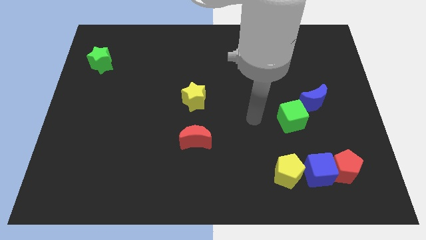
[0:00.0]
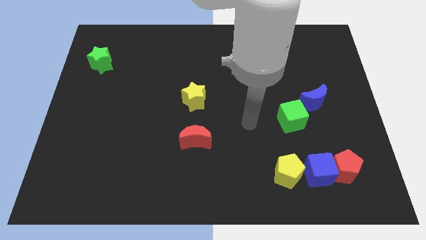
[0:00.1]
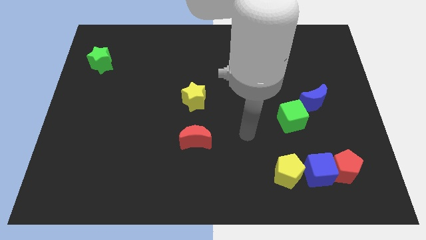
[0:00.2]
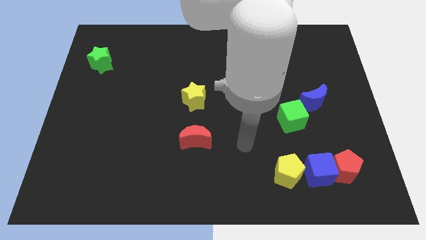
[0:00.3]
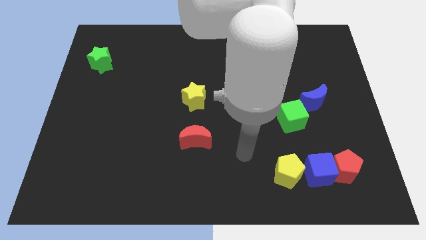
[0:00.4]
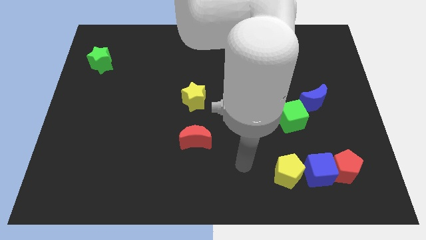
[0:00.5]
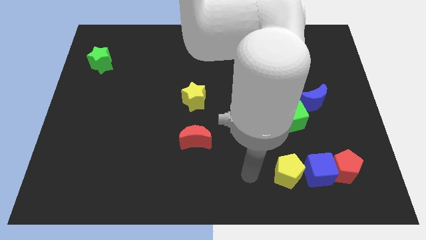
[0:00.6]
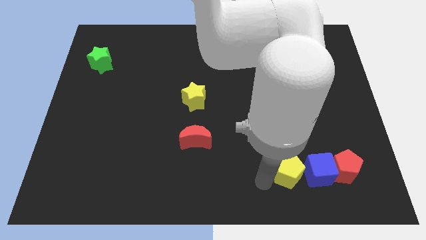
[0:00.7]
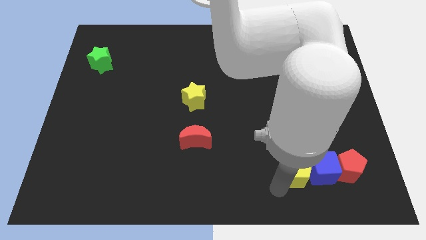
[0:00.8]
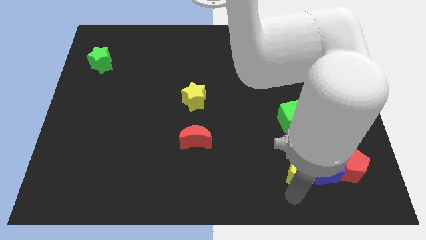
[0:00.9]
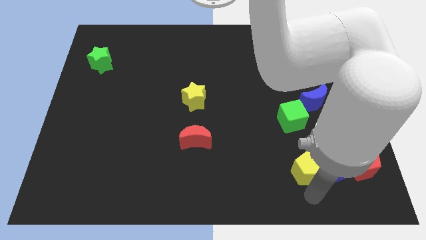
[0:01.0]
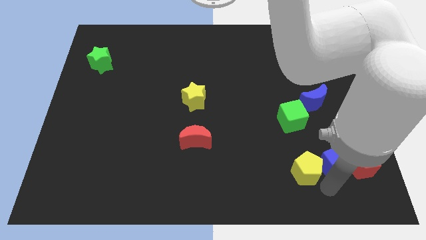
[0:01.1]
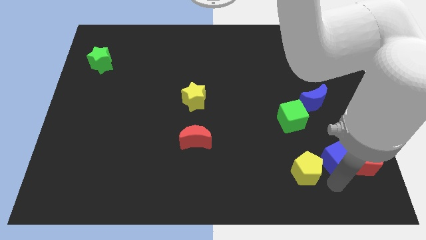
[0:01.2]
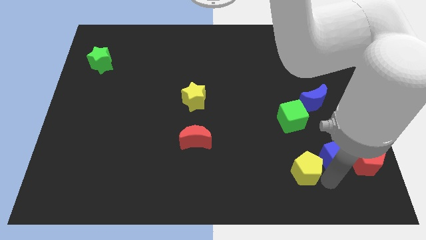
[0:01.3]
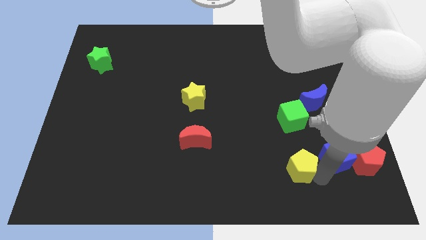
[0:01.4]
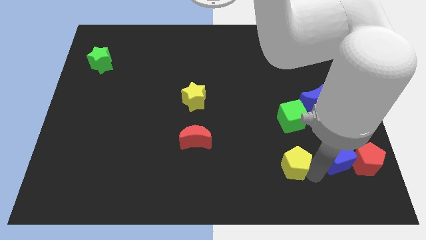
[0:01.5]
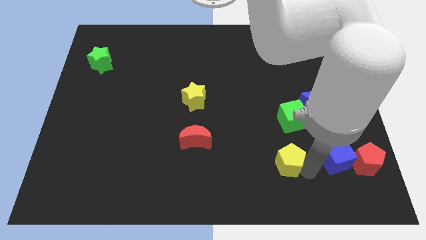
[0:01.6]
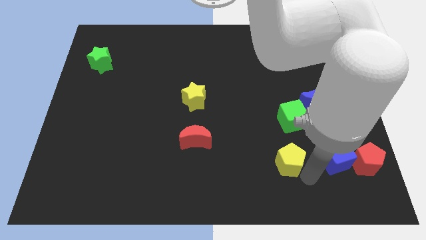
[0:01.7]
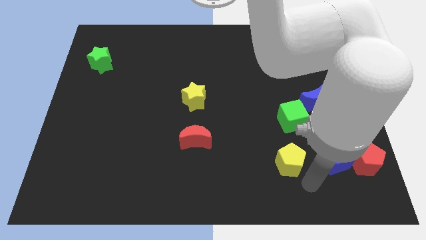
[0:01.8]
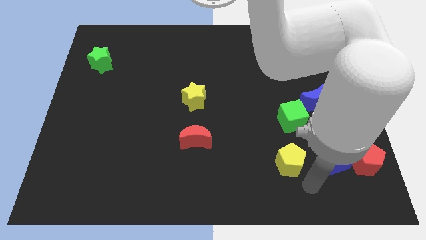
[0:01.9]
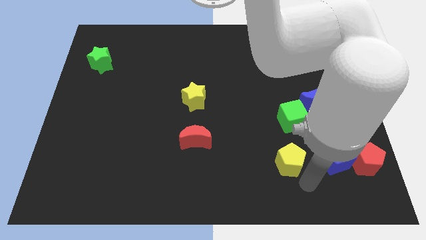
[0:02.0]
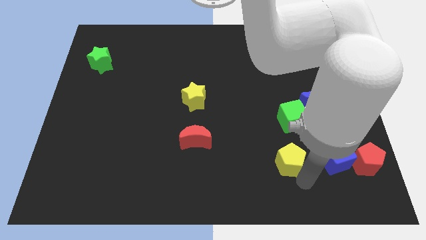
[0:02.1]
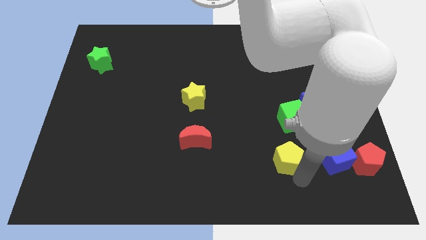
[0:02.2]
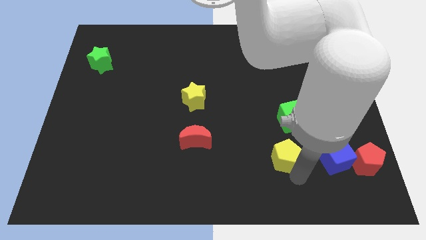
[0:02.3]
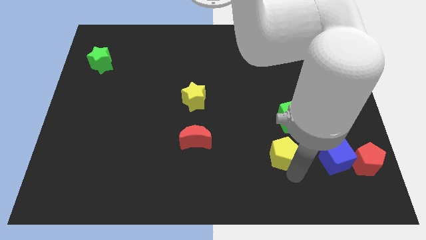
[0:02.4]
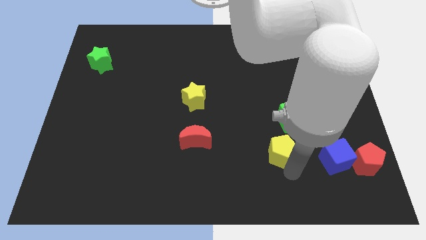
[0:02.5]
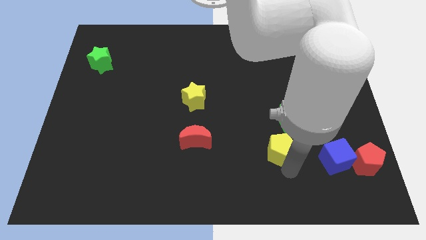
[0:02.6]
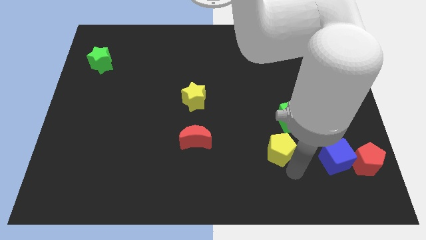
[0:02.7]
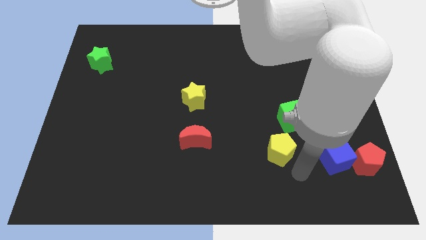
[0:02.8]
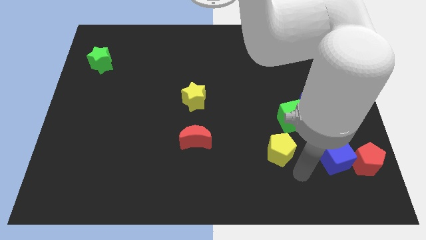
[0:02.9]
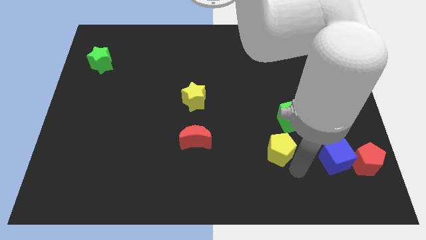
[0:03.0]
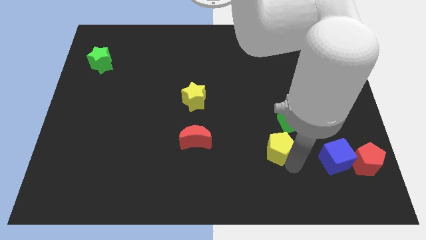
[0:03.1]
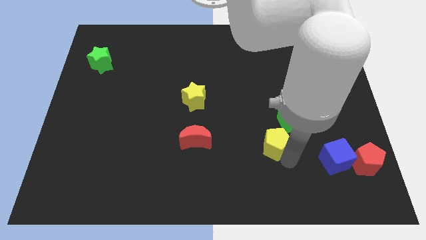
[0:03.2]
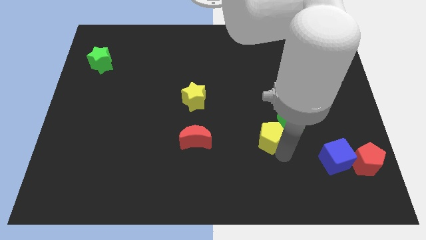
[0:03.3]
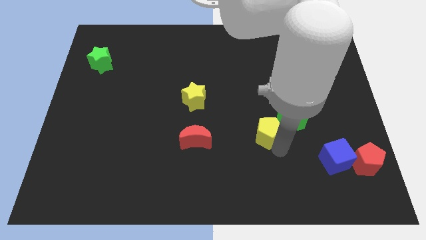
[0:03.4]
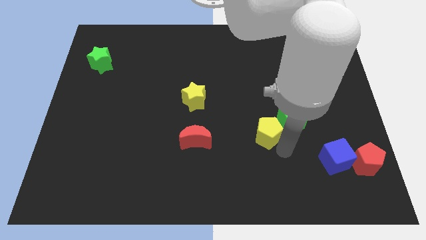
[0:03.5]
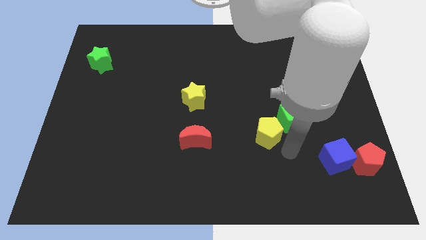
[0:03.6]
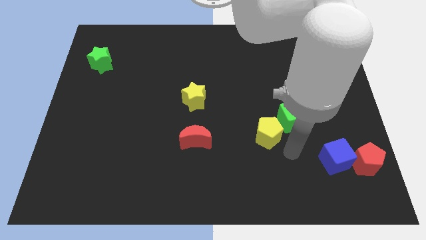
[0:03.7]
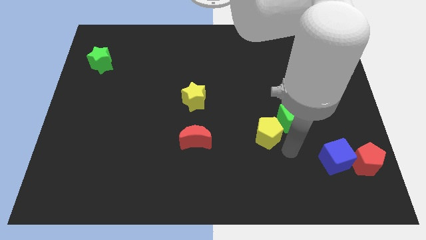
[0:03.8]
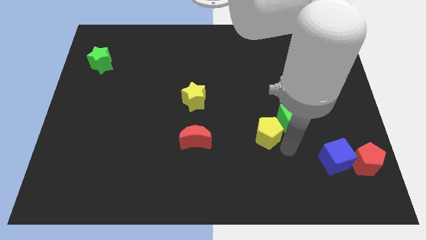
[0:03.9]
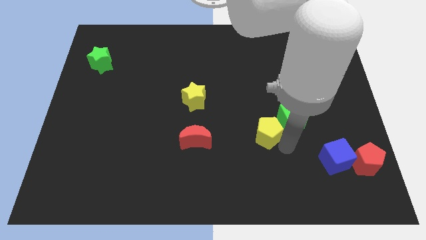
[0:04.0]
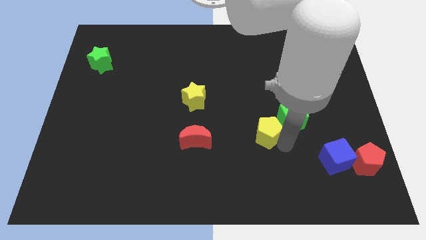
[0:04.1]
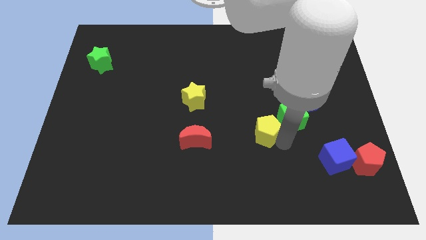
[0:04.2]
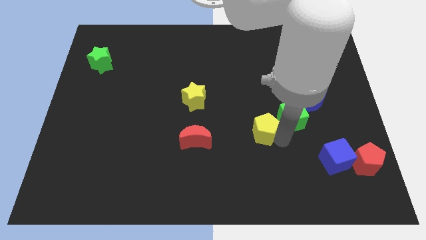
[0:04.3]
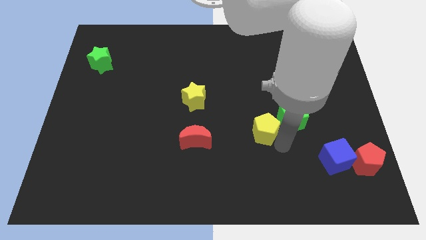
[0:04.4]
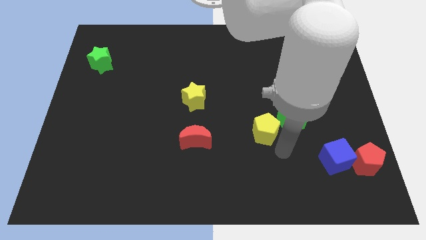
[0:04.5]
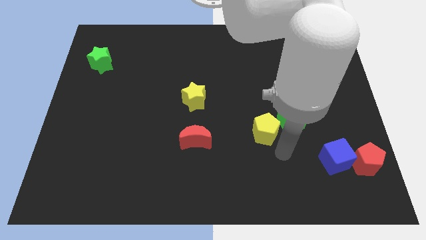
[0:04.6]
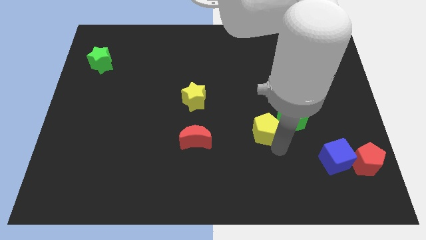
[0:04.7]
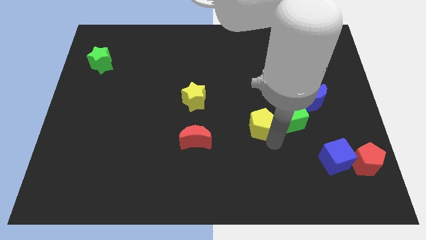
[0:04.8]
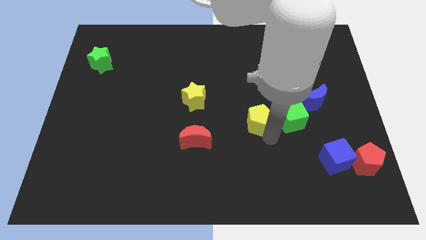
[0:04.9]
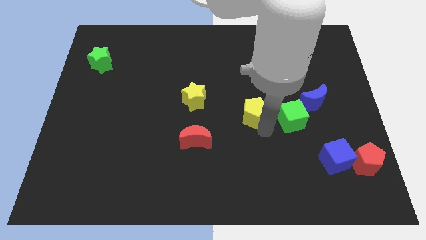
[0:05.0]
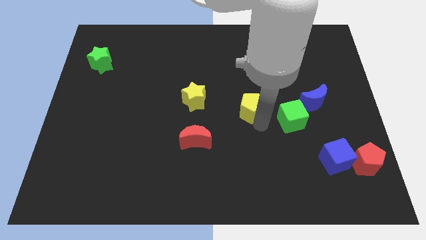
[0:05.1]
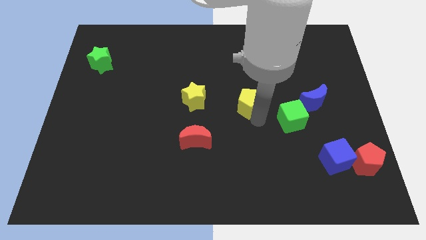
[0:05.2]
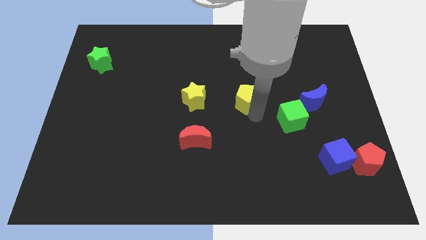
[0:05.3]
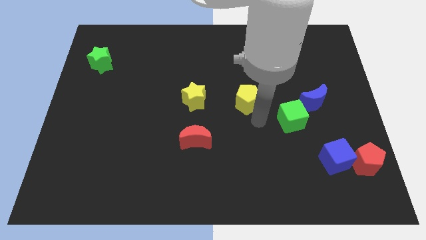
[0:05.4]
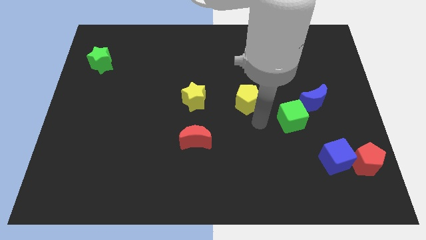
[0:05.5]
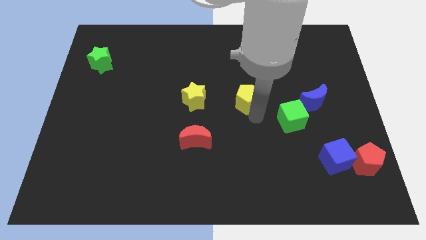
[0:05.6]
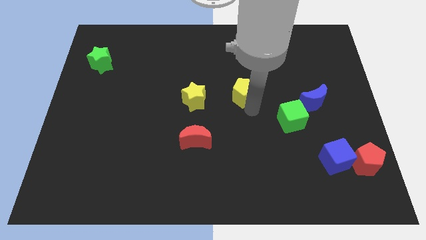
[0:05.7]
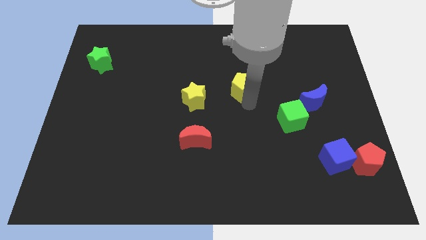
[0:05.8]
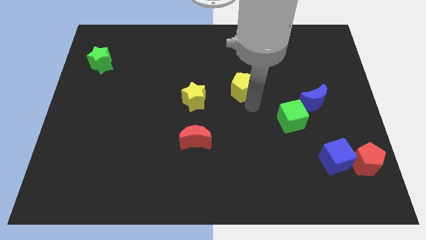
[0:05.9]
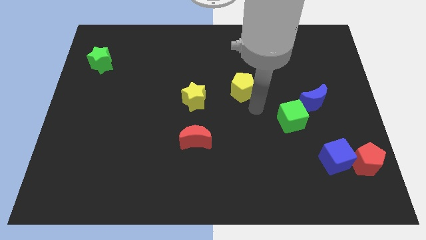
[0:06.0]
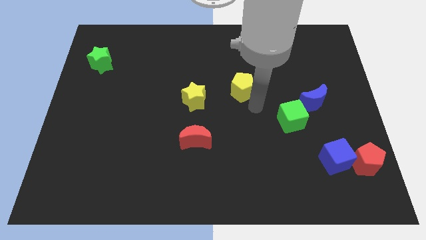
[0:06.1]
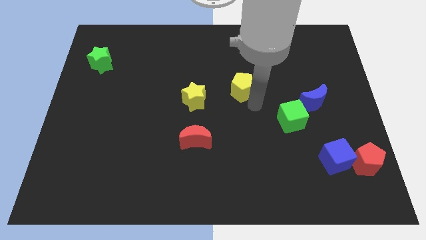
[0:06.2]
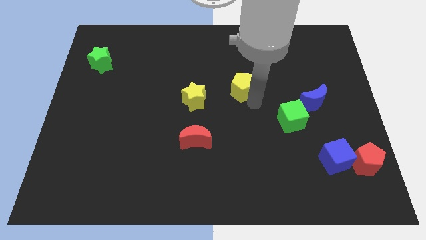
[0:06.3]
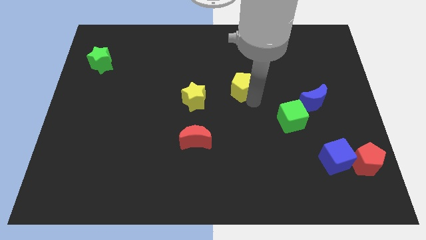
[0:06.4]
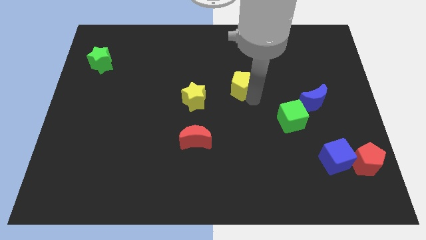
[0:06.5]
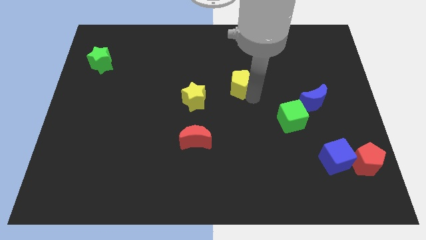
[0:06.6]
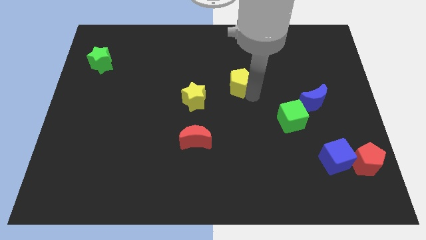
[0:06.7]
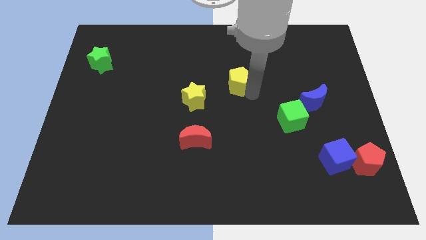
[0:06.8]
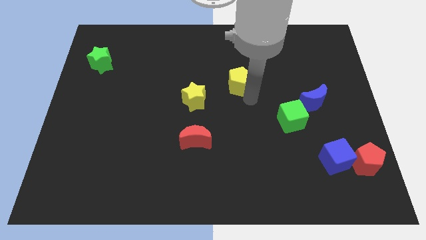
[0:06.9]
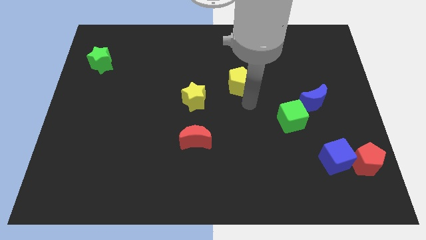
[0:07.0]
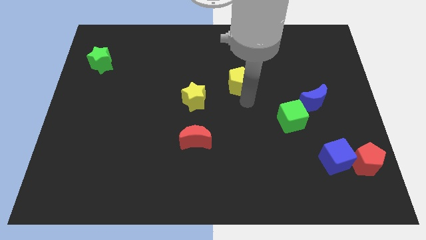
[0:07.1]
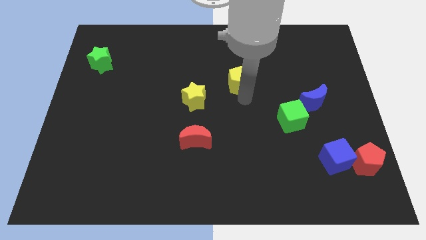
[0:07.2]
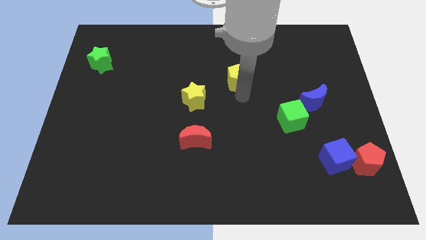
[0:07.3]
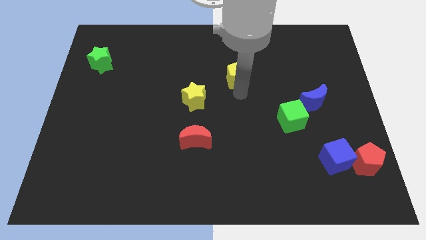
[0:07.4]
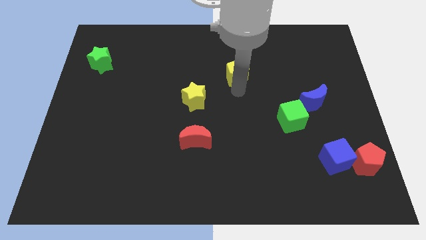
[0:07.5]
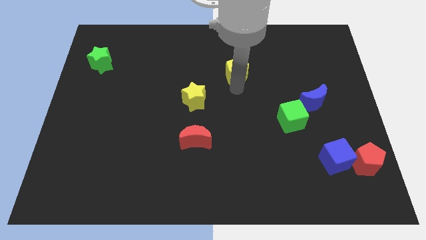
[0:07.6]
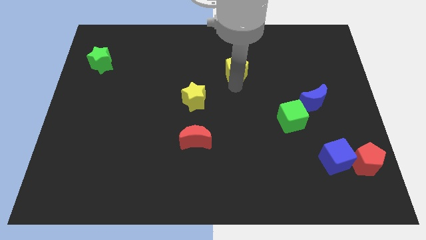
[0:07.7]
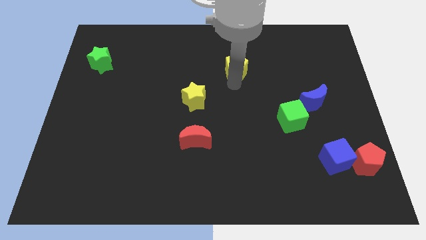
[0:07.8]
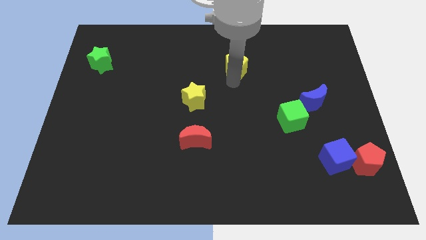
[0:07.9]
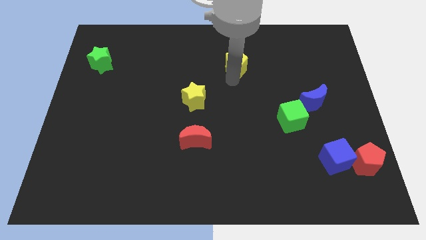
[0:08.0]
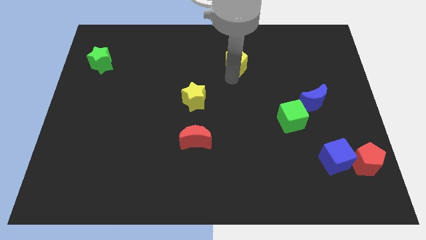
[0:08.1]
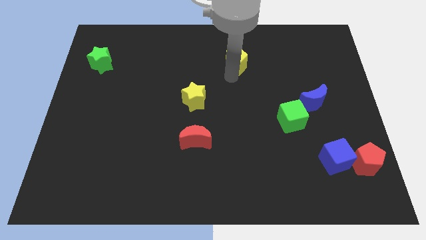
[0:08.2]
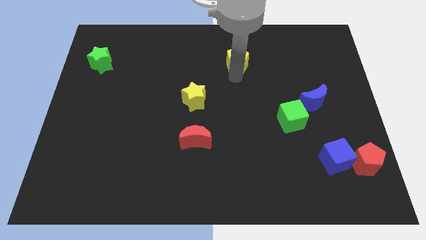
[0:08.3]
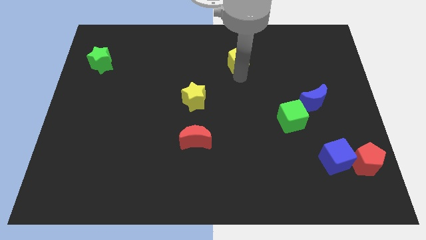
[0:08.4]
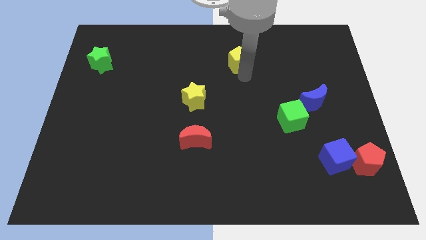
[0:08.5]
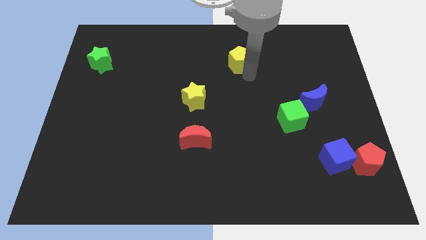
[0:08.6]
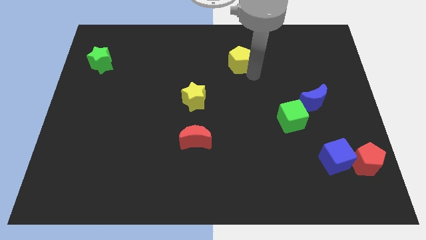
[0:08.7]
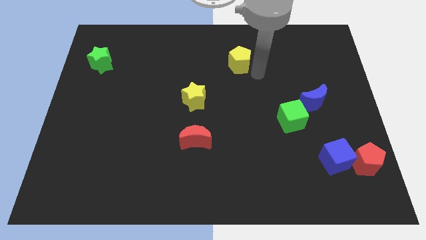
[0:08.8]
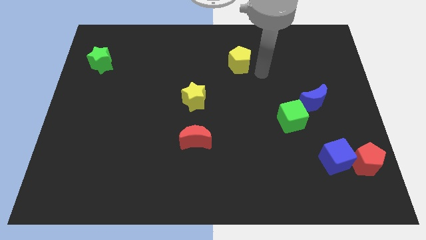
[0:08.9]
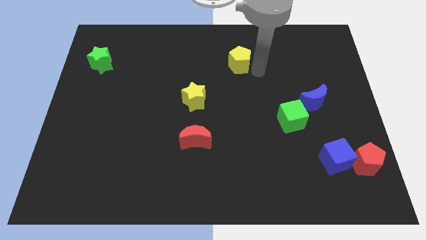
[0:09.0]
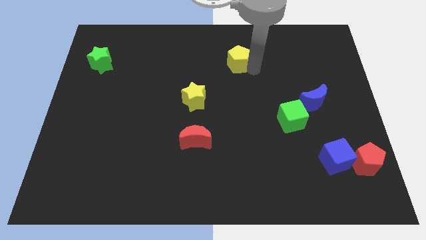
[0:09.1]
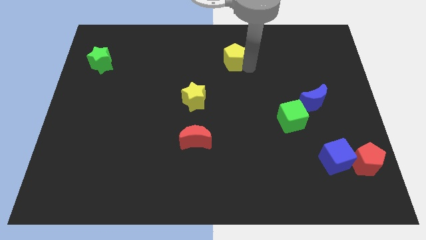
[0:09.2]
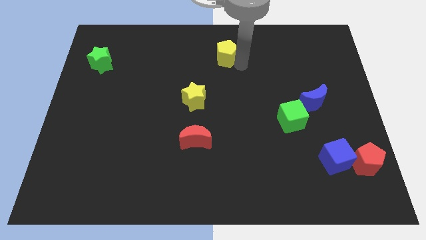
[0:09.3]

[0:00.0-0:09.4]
put the yellow pentagon to the towards your base
